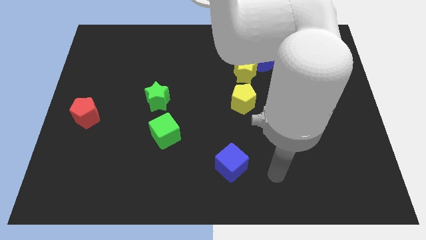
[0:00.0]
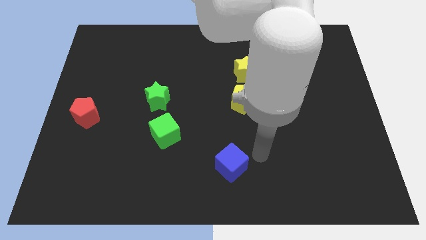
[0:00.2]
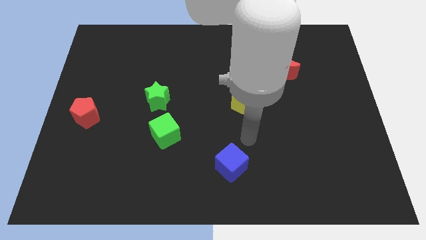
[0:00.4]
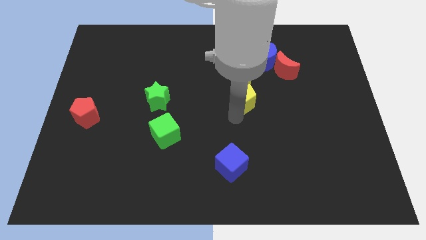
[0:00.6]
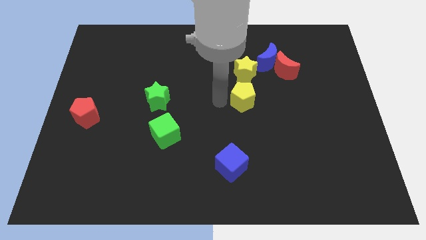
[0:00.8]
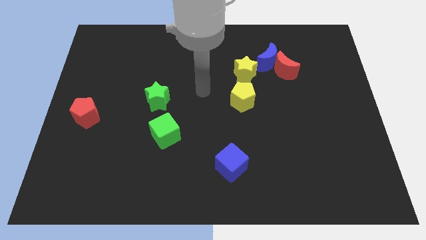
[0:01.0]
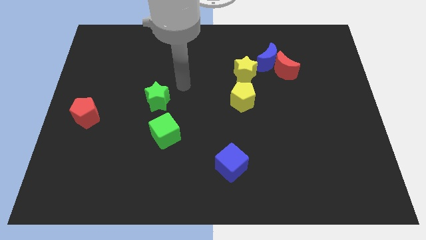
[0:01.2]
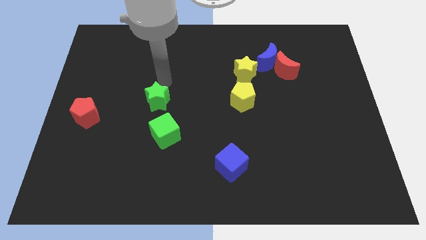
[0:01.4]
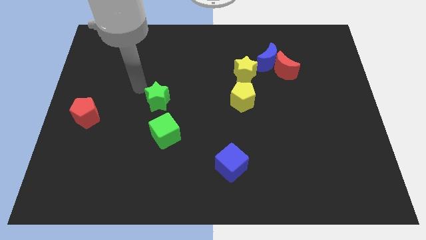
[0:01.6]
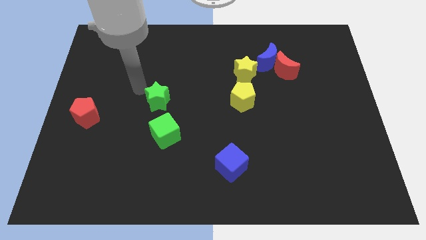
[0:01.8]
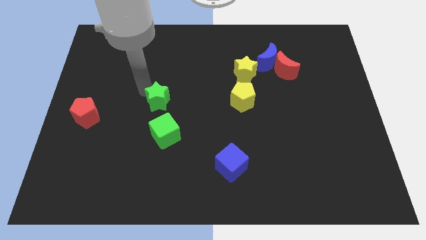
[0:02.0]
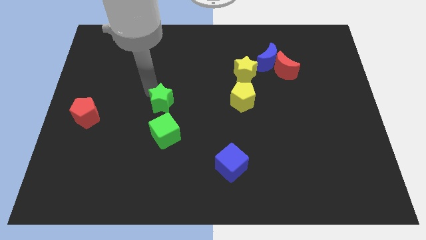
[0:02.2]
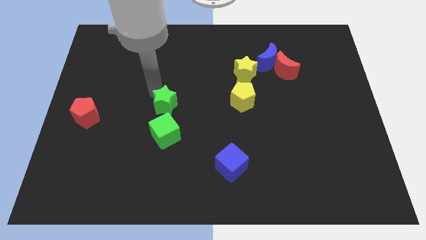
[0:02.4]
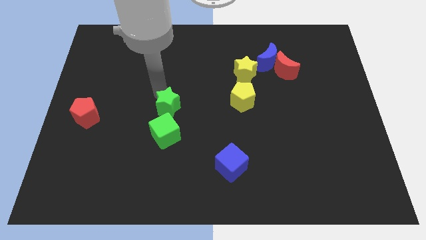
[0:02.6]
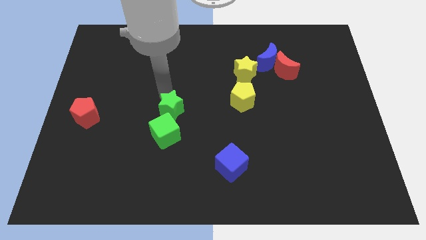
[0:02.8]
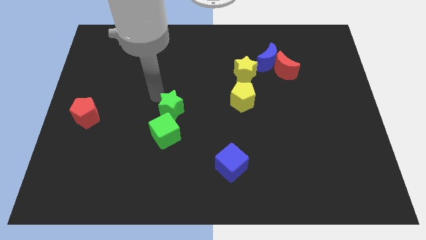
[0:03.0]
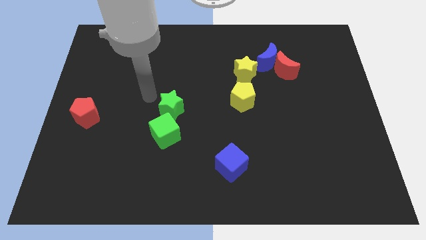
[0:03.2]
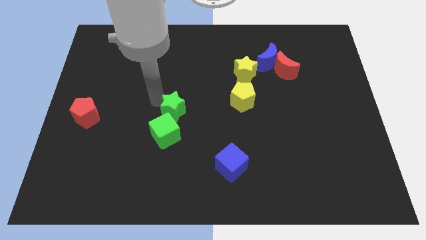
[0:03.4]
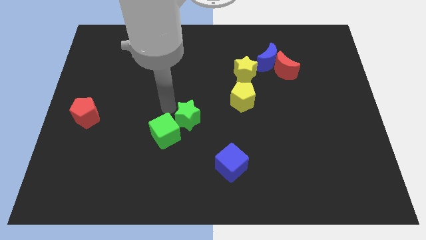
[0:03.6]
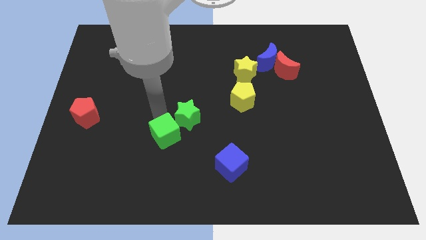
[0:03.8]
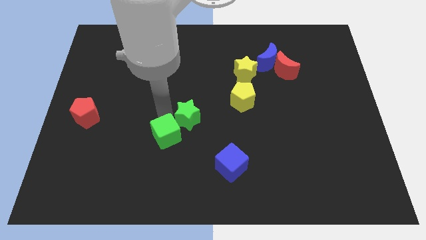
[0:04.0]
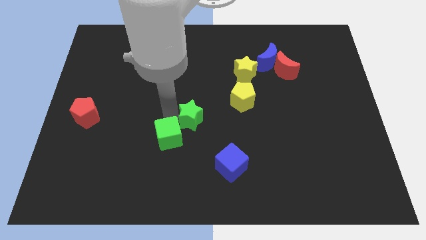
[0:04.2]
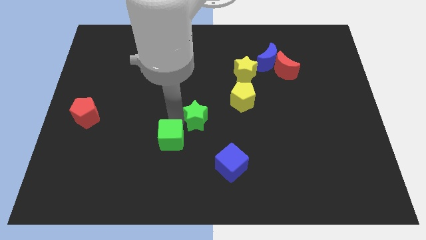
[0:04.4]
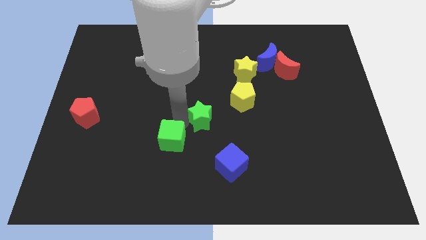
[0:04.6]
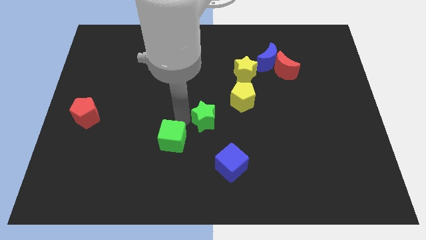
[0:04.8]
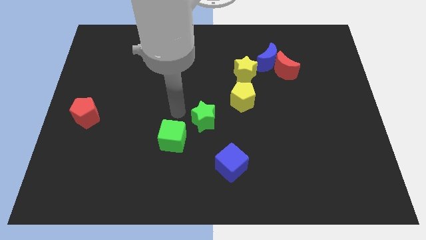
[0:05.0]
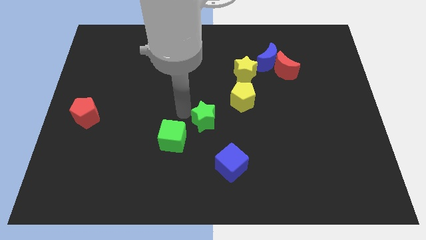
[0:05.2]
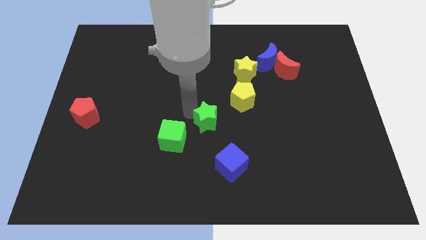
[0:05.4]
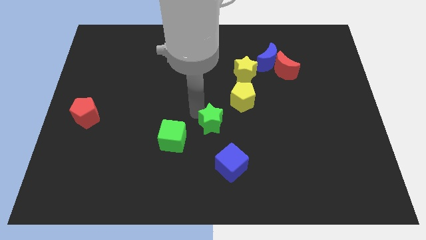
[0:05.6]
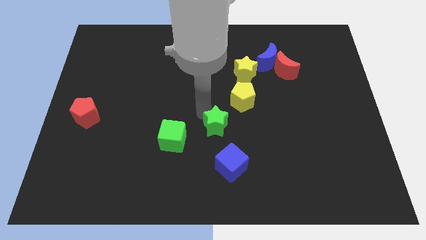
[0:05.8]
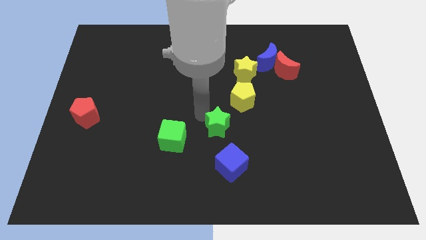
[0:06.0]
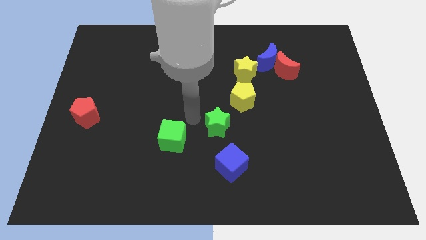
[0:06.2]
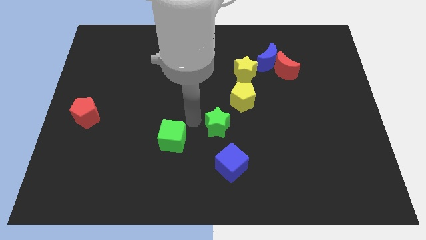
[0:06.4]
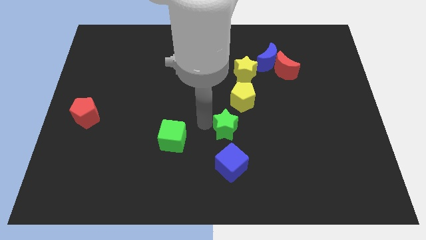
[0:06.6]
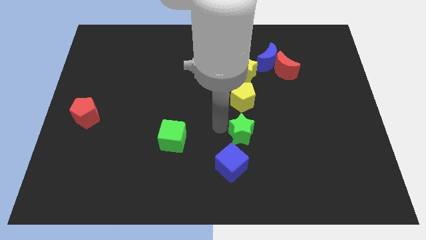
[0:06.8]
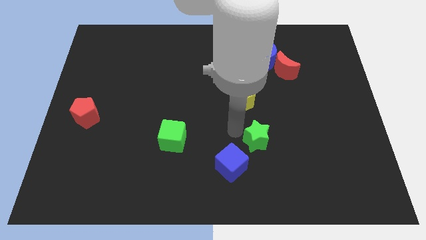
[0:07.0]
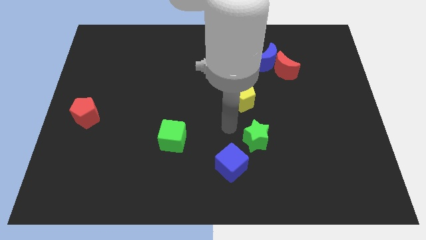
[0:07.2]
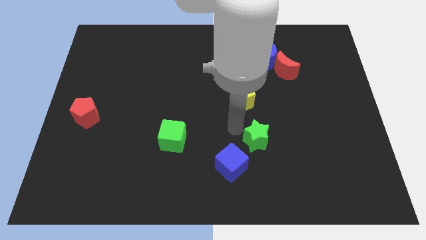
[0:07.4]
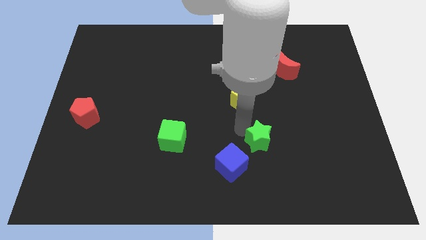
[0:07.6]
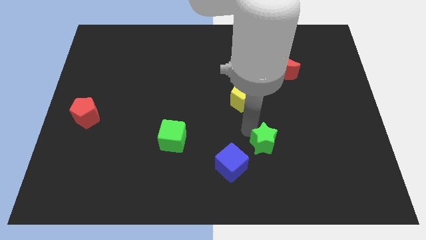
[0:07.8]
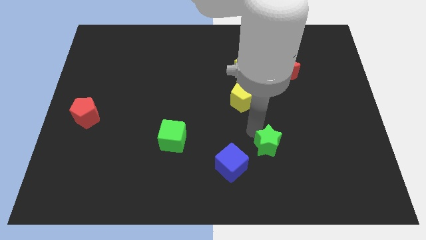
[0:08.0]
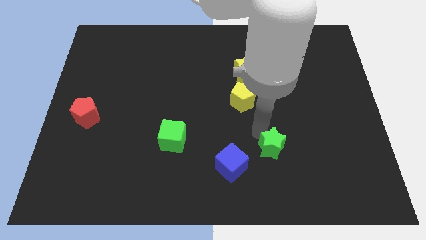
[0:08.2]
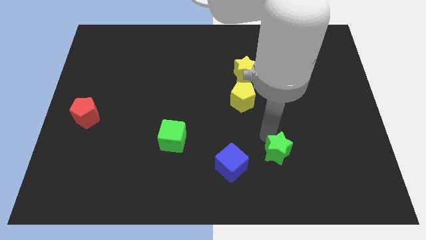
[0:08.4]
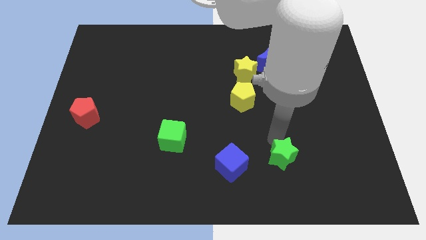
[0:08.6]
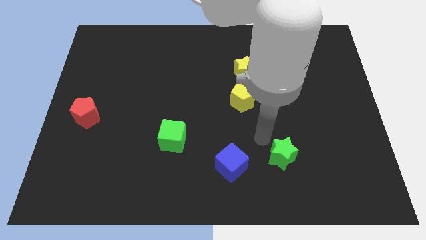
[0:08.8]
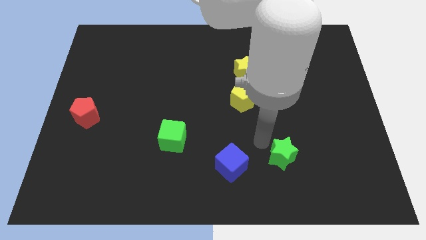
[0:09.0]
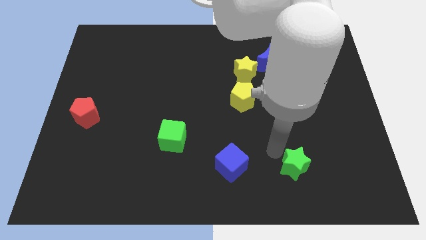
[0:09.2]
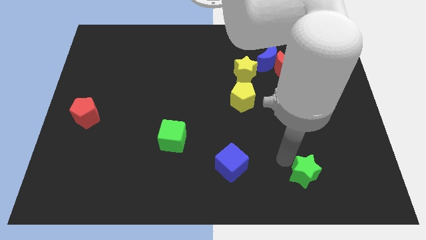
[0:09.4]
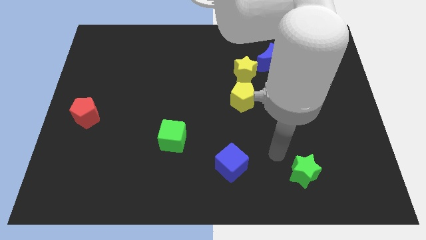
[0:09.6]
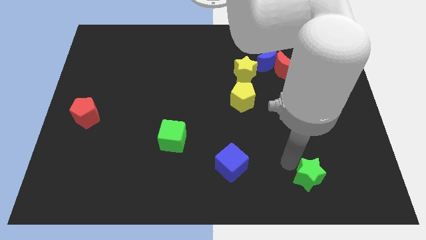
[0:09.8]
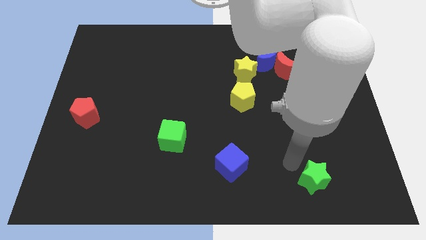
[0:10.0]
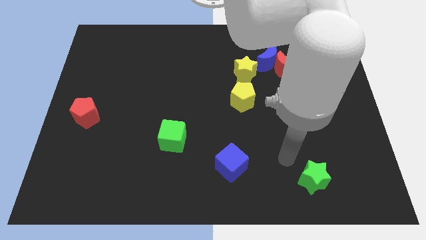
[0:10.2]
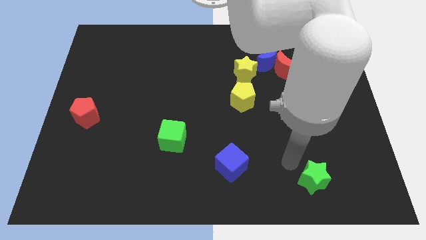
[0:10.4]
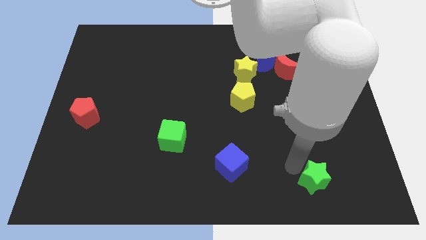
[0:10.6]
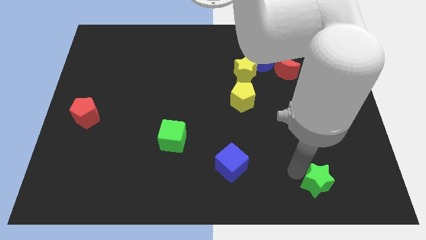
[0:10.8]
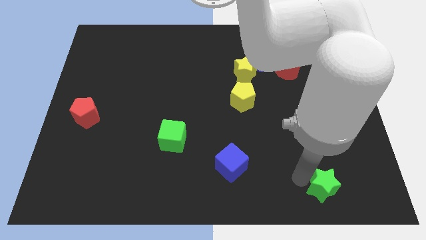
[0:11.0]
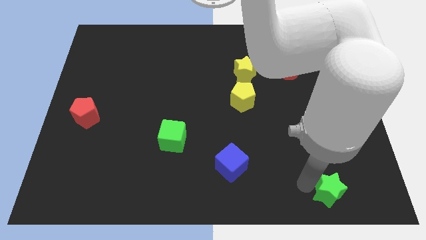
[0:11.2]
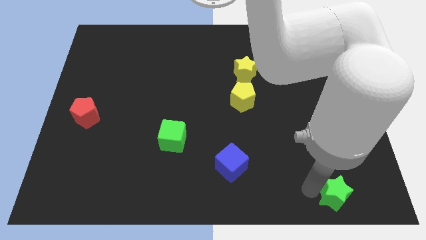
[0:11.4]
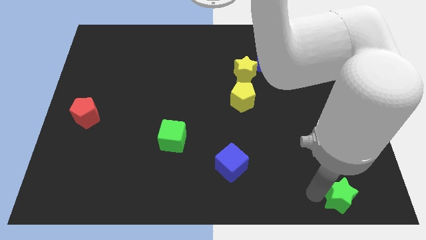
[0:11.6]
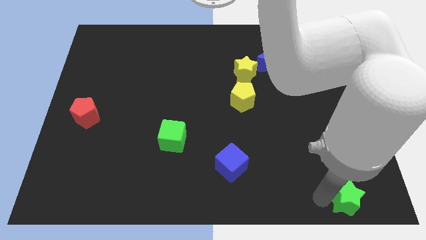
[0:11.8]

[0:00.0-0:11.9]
move the green star to the lower right corner

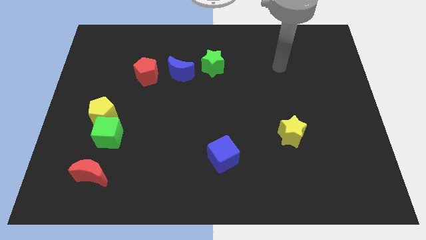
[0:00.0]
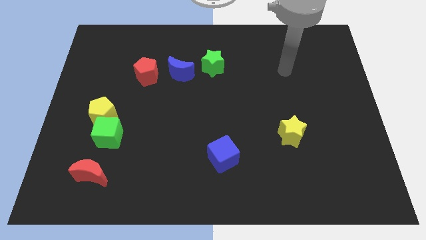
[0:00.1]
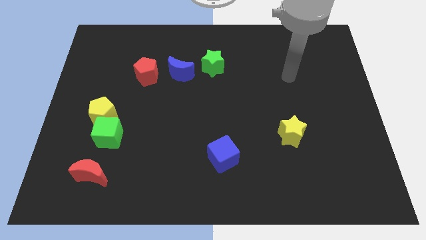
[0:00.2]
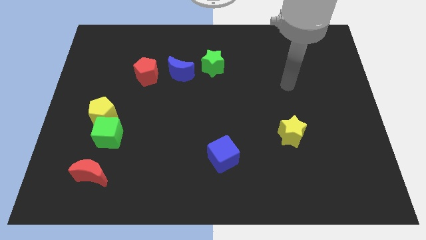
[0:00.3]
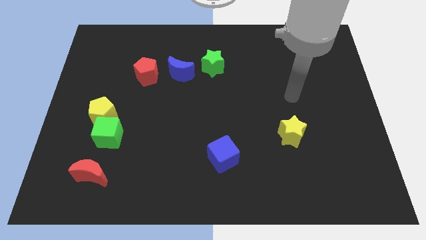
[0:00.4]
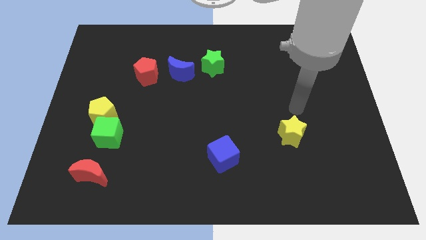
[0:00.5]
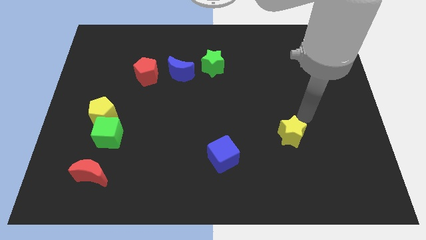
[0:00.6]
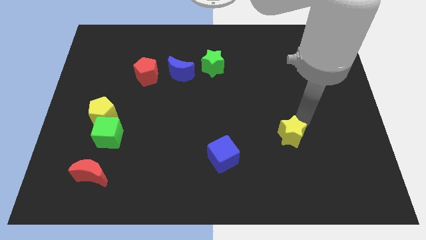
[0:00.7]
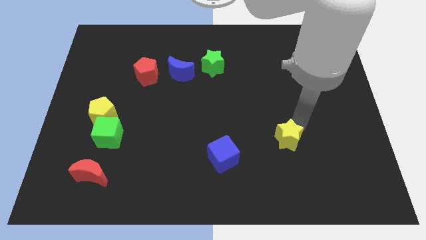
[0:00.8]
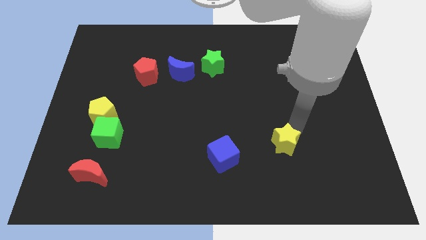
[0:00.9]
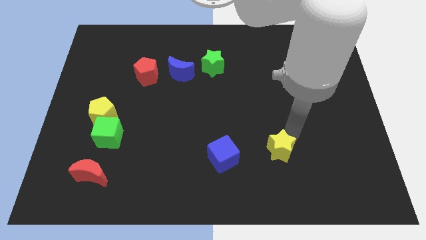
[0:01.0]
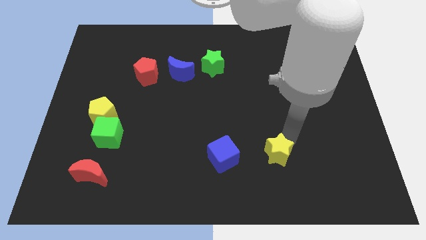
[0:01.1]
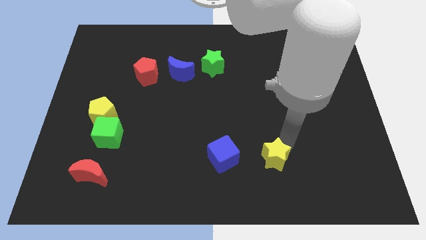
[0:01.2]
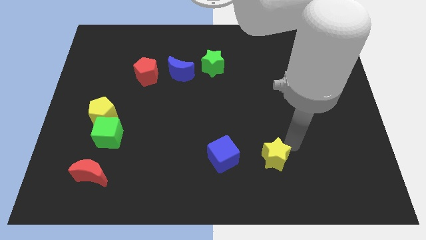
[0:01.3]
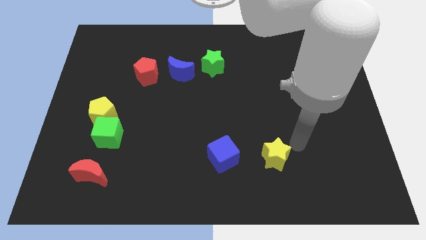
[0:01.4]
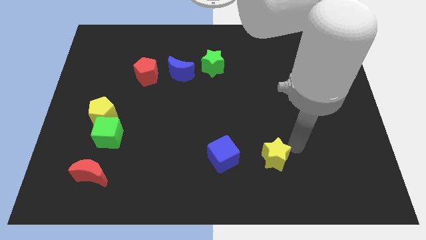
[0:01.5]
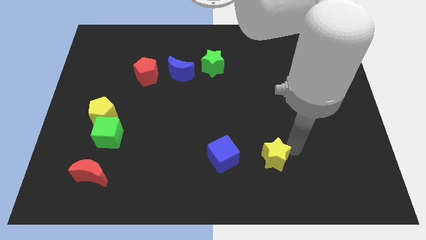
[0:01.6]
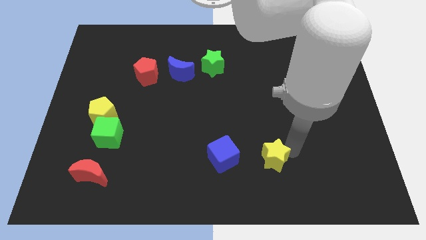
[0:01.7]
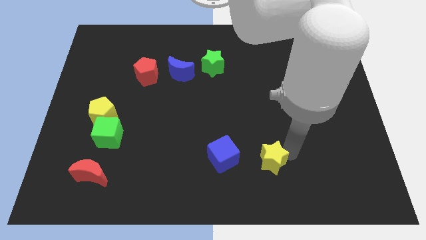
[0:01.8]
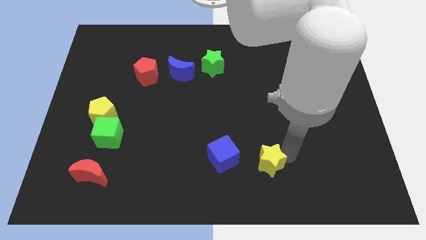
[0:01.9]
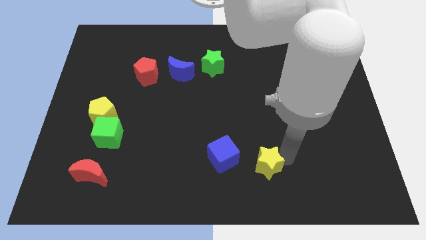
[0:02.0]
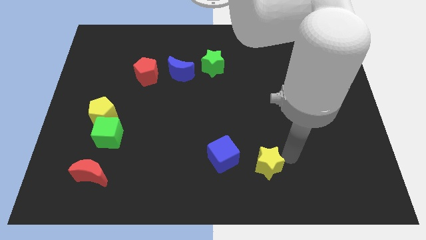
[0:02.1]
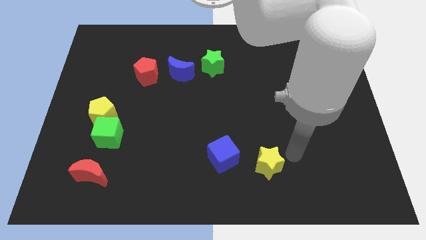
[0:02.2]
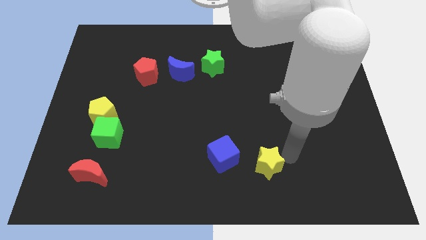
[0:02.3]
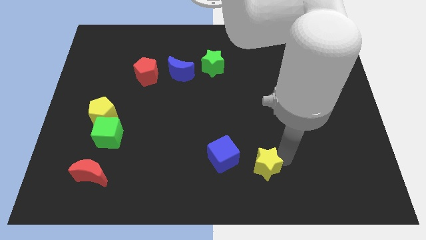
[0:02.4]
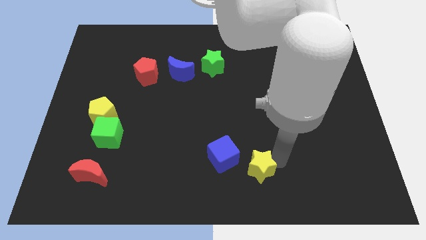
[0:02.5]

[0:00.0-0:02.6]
push the yellow star to the bottom
